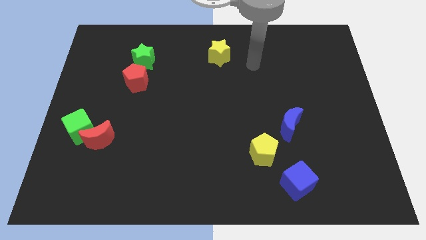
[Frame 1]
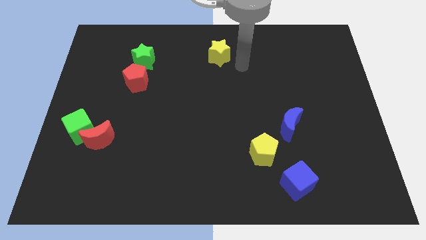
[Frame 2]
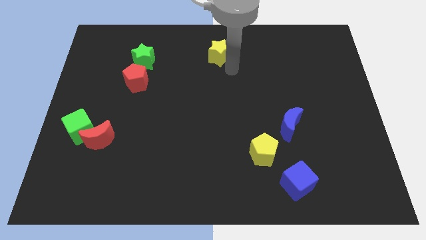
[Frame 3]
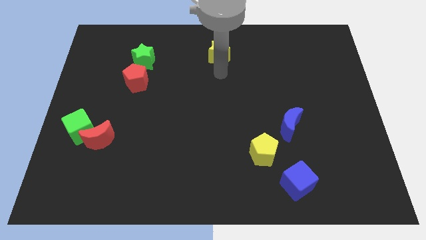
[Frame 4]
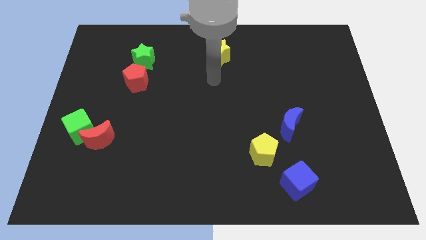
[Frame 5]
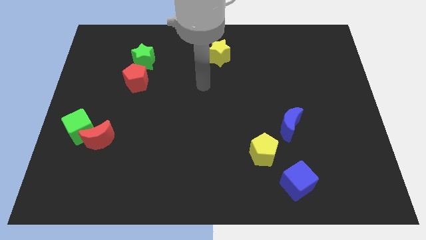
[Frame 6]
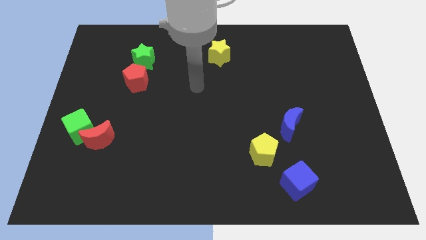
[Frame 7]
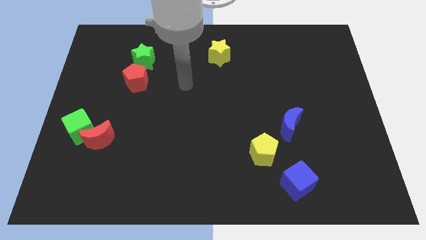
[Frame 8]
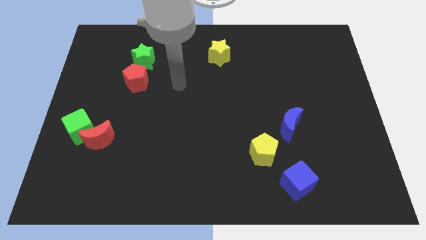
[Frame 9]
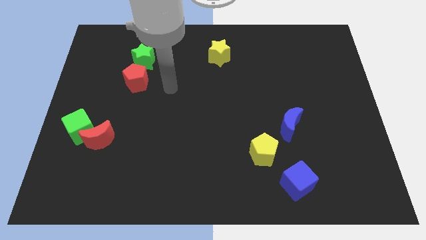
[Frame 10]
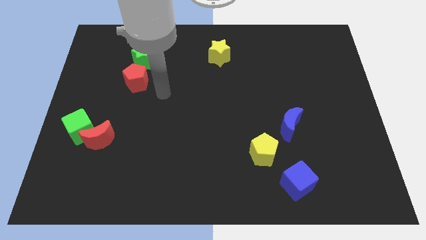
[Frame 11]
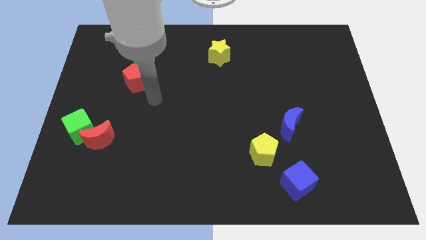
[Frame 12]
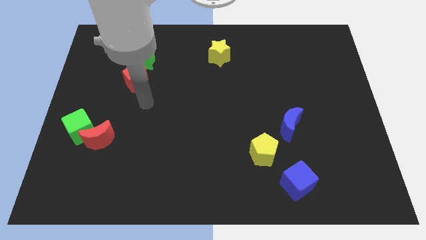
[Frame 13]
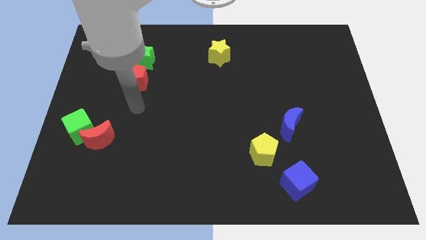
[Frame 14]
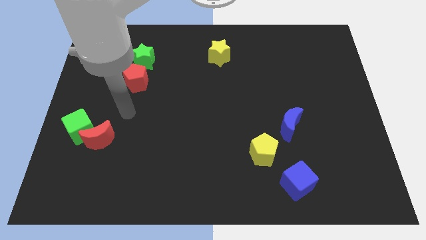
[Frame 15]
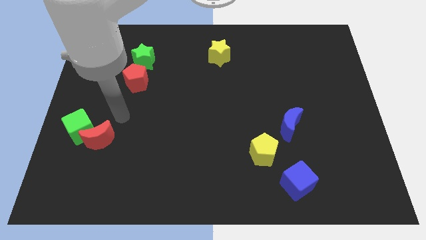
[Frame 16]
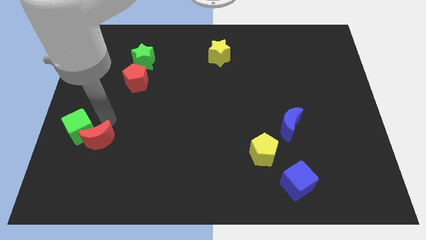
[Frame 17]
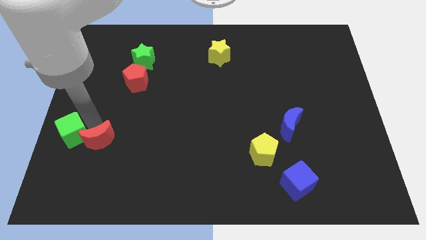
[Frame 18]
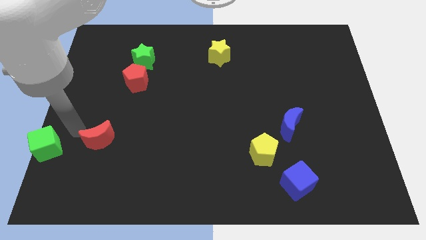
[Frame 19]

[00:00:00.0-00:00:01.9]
pull the red moon apart from the green cube

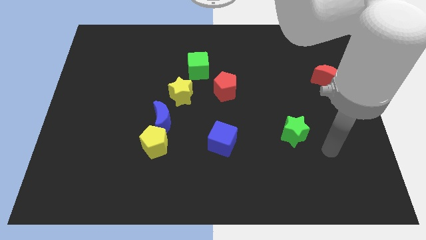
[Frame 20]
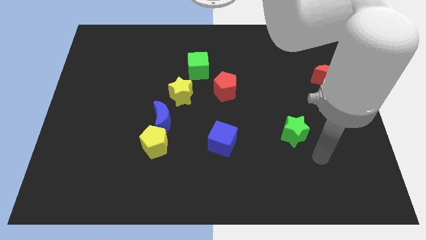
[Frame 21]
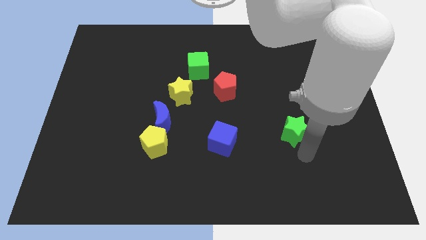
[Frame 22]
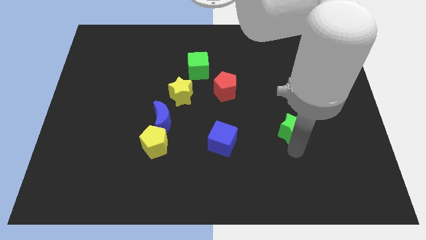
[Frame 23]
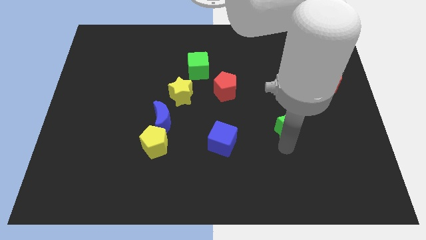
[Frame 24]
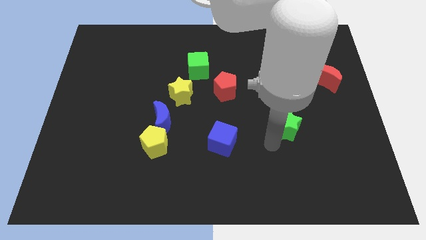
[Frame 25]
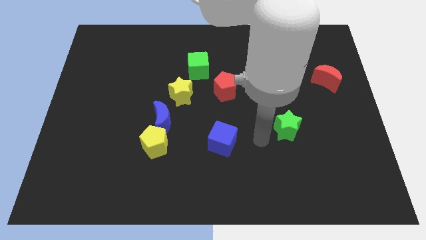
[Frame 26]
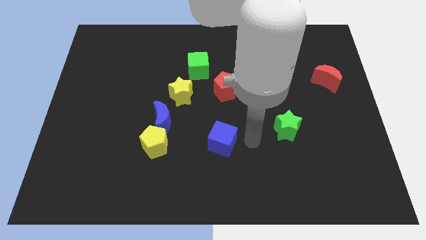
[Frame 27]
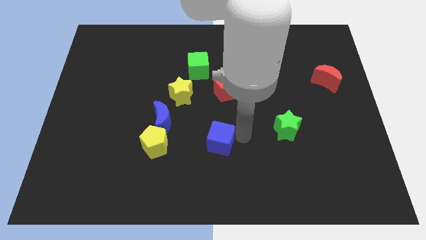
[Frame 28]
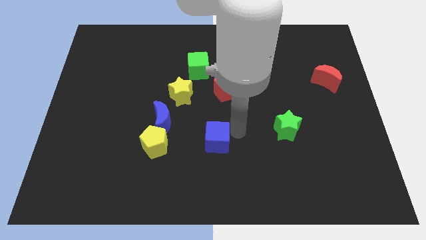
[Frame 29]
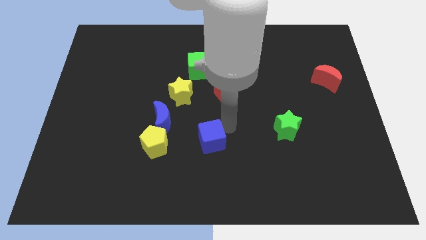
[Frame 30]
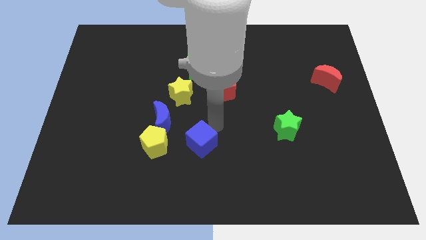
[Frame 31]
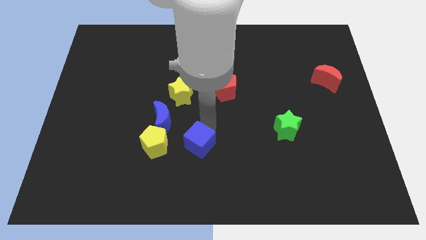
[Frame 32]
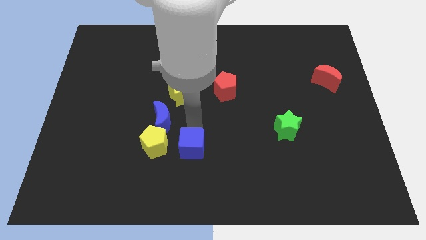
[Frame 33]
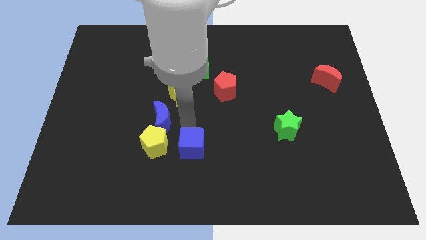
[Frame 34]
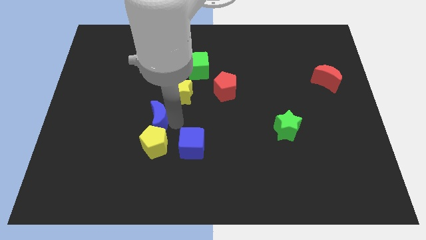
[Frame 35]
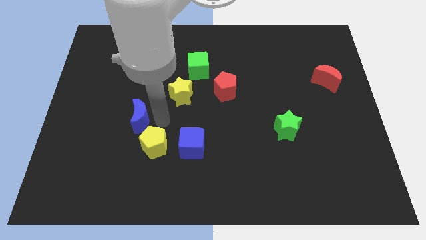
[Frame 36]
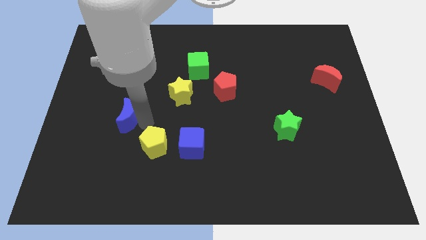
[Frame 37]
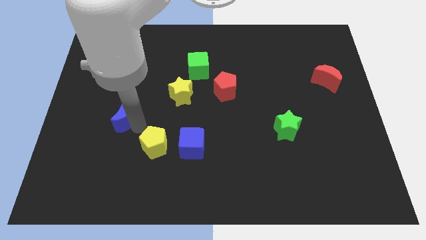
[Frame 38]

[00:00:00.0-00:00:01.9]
pull the yellow pentagon apart from the blue moon

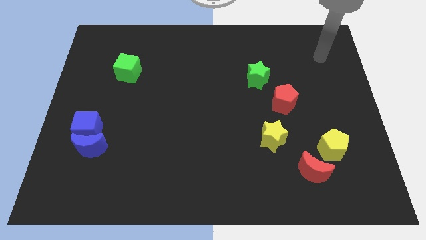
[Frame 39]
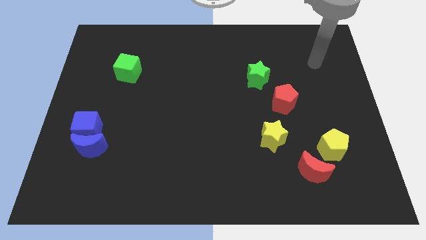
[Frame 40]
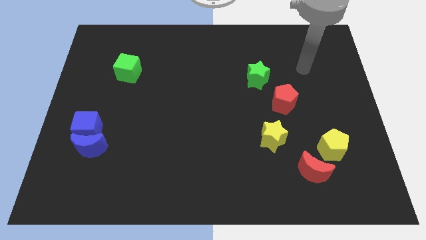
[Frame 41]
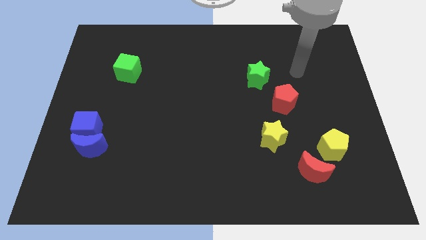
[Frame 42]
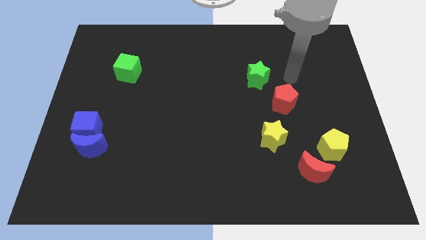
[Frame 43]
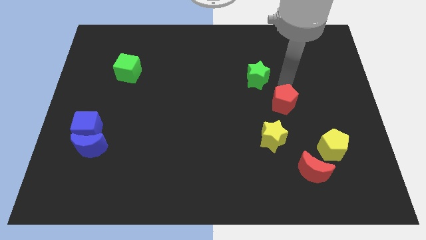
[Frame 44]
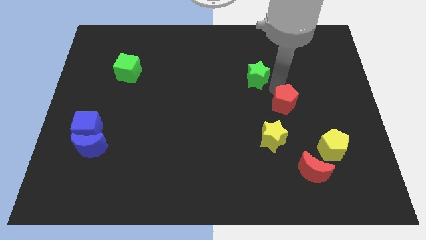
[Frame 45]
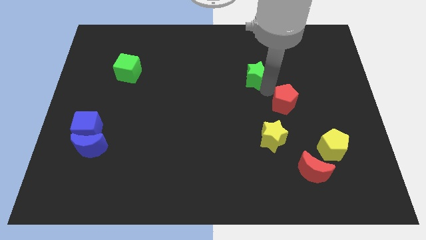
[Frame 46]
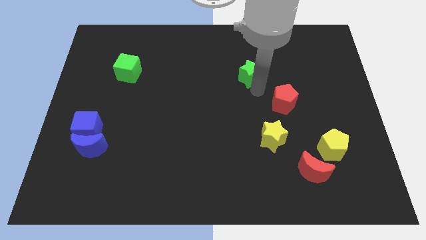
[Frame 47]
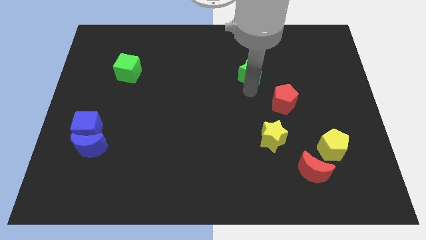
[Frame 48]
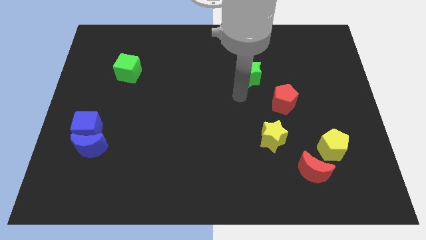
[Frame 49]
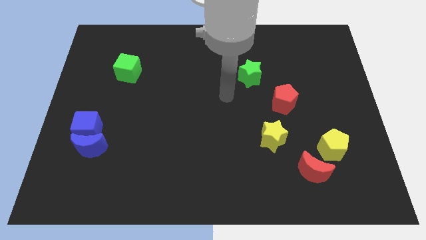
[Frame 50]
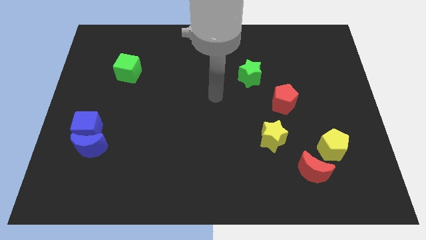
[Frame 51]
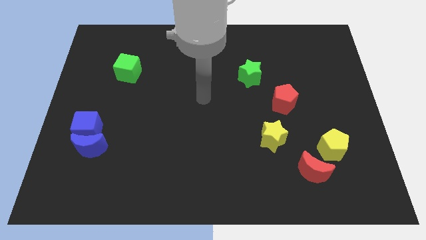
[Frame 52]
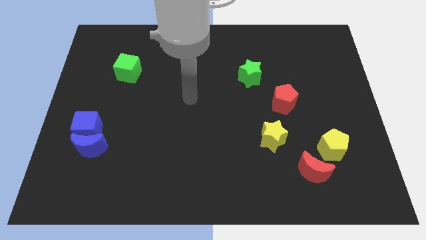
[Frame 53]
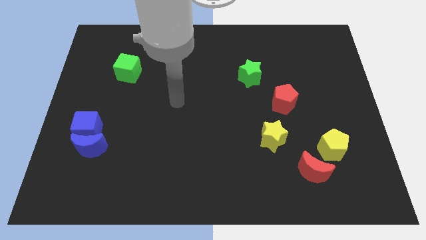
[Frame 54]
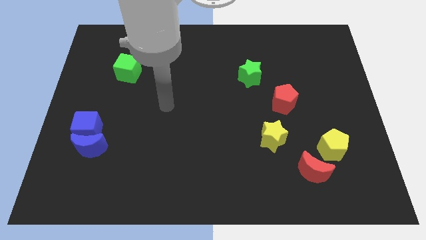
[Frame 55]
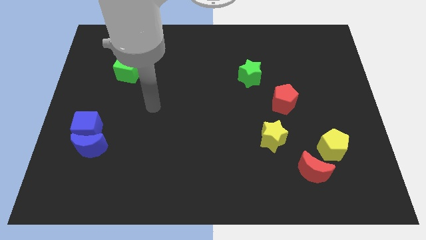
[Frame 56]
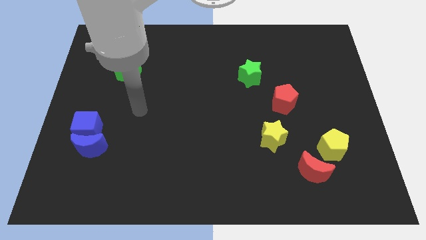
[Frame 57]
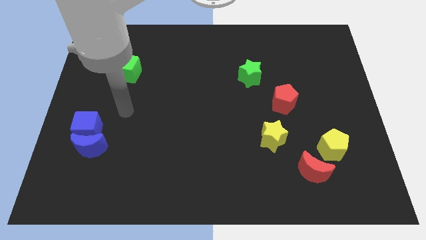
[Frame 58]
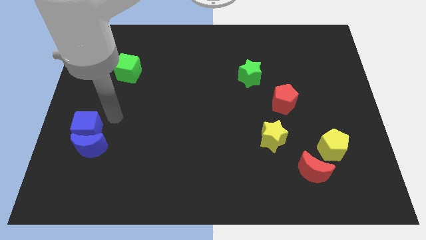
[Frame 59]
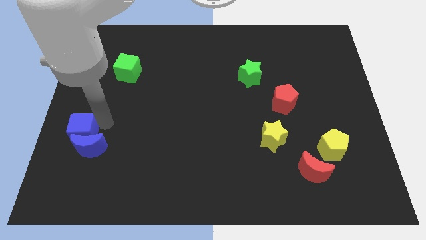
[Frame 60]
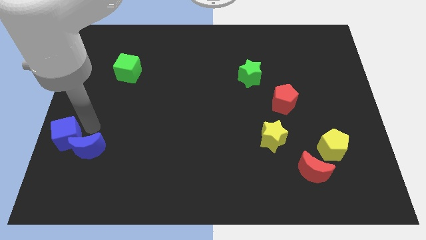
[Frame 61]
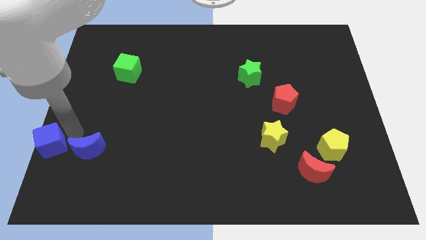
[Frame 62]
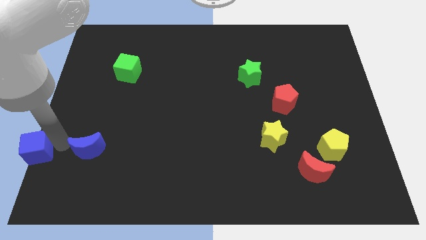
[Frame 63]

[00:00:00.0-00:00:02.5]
move the blue moon away from the blue cube

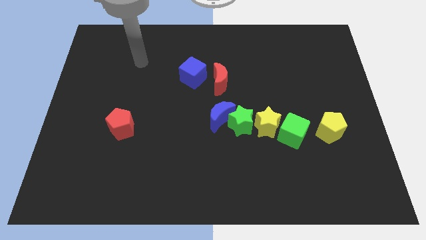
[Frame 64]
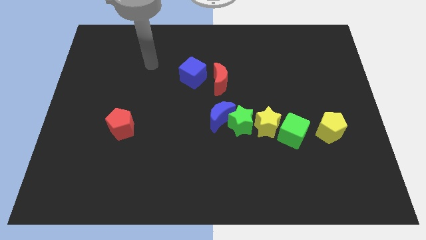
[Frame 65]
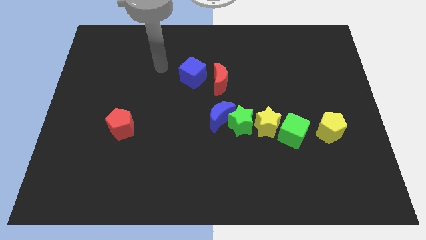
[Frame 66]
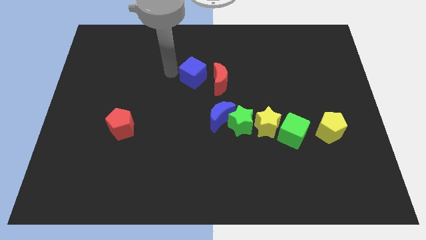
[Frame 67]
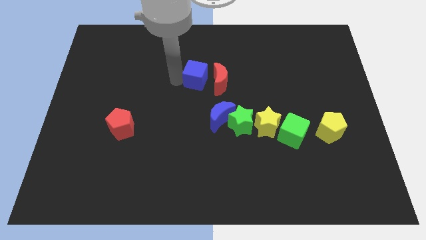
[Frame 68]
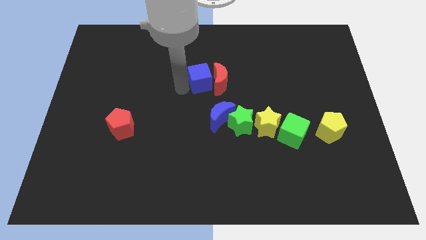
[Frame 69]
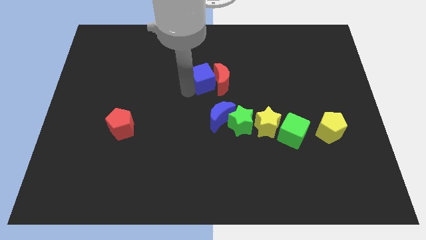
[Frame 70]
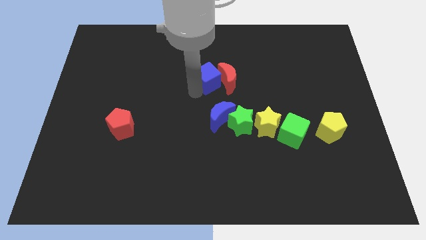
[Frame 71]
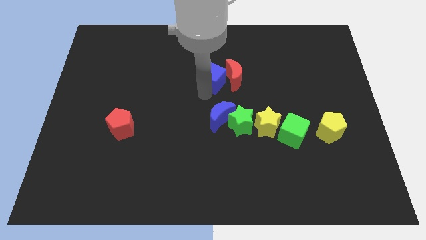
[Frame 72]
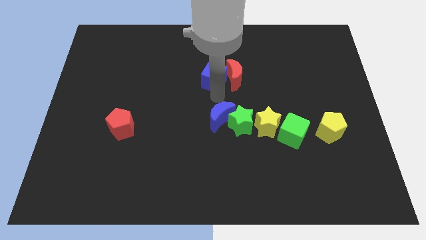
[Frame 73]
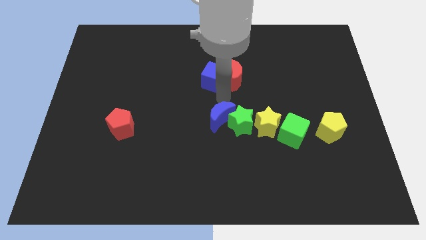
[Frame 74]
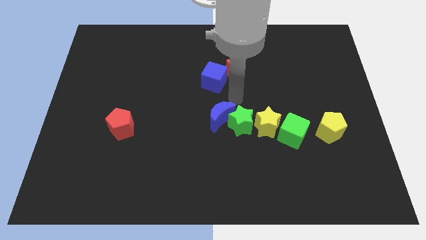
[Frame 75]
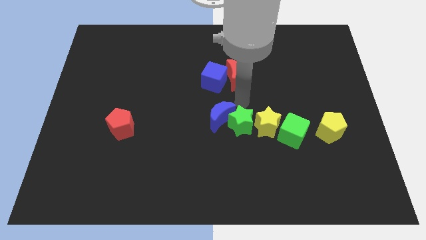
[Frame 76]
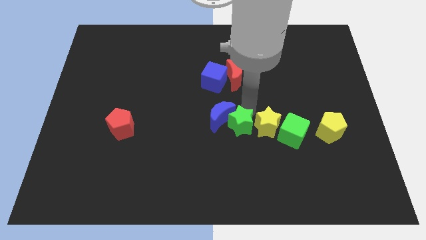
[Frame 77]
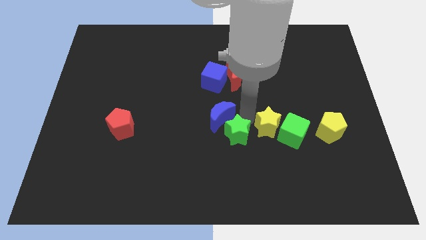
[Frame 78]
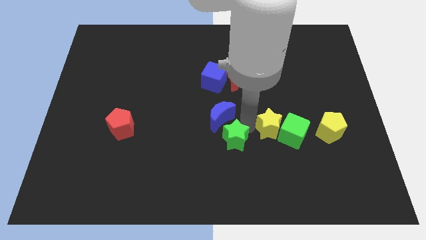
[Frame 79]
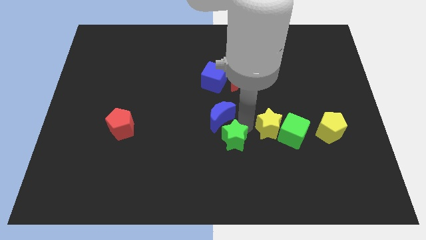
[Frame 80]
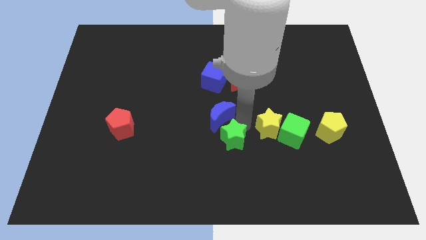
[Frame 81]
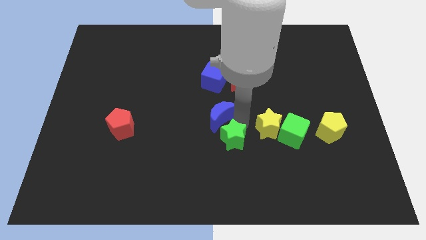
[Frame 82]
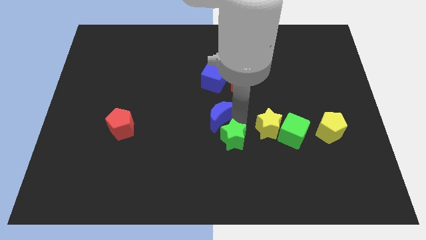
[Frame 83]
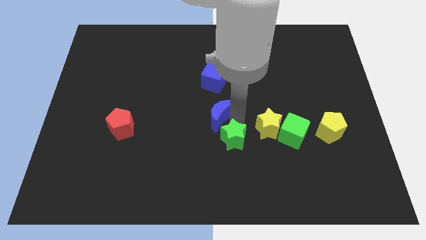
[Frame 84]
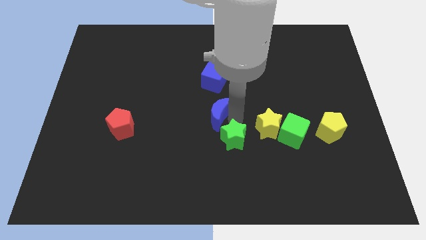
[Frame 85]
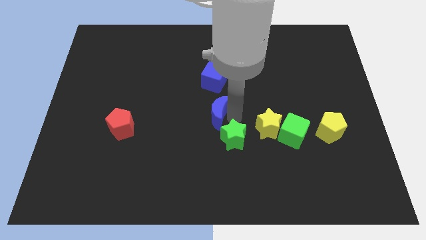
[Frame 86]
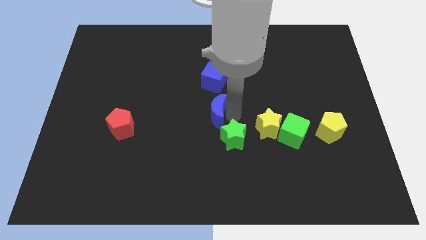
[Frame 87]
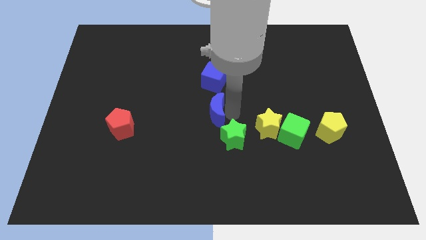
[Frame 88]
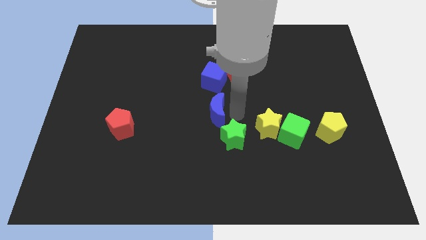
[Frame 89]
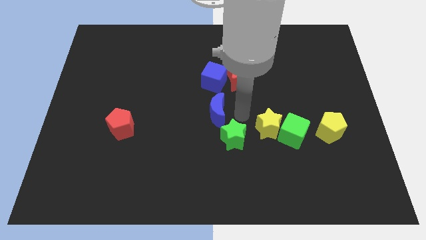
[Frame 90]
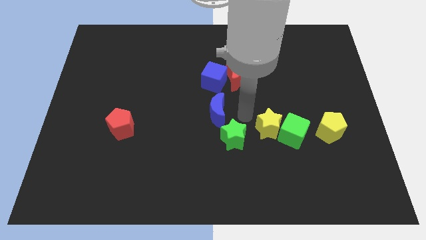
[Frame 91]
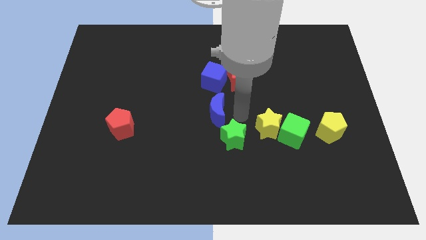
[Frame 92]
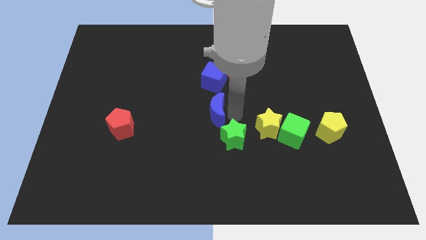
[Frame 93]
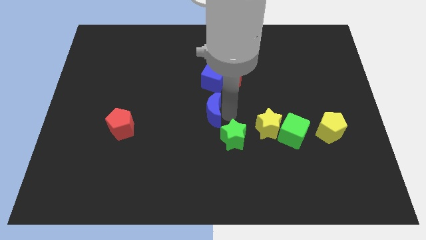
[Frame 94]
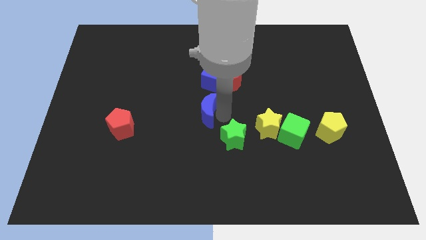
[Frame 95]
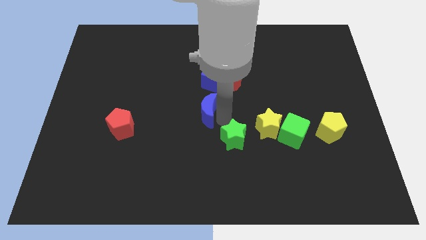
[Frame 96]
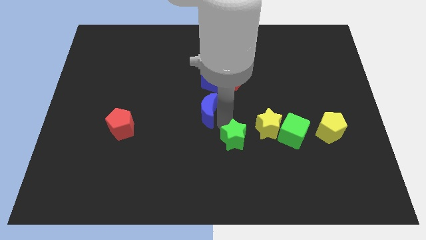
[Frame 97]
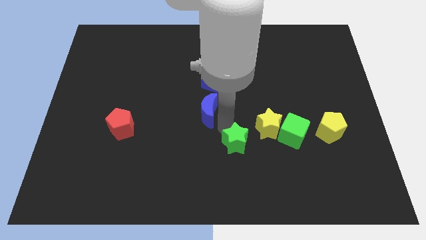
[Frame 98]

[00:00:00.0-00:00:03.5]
pull the blue moon apart from the green star
